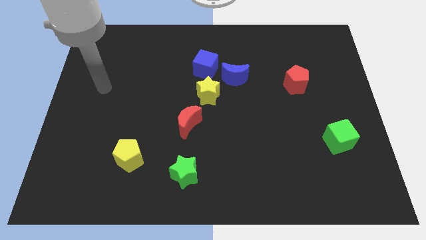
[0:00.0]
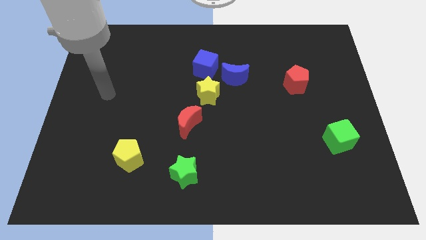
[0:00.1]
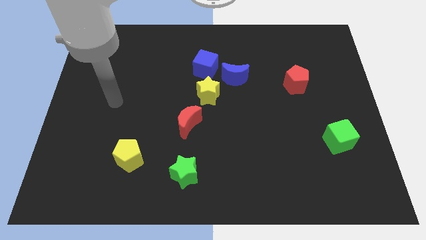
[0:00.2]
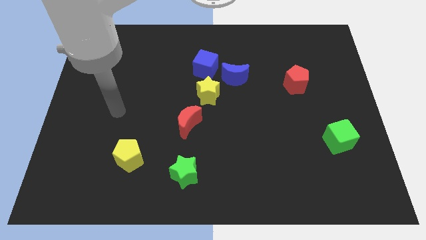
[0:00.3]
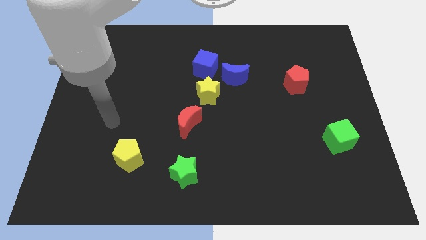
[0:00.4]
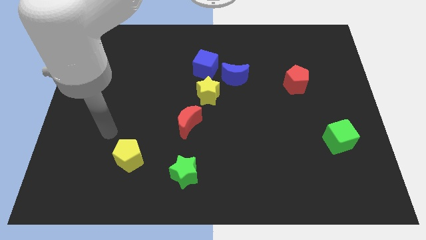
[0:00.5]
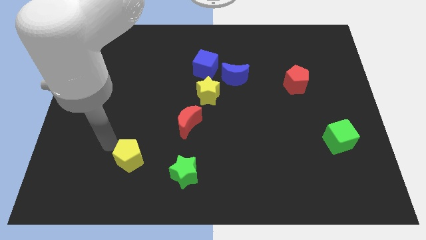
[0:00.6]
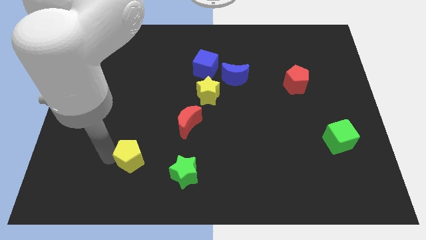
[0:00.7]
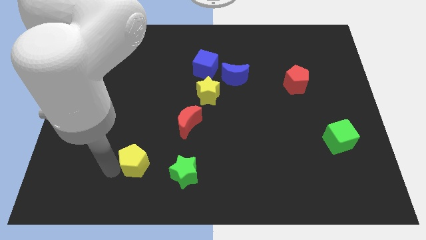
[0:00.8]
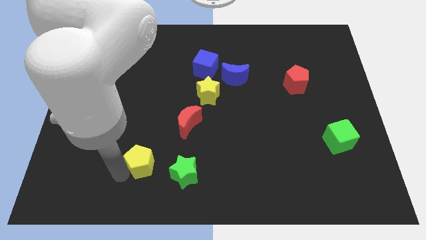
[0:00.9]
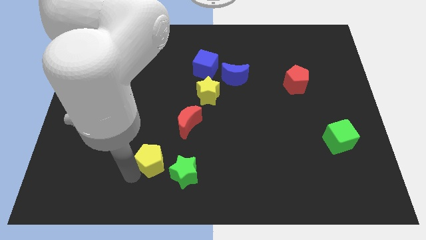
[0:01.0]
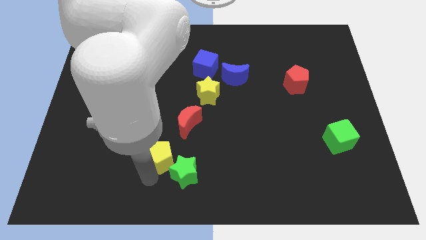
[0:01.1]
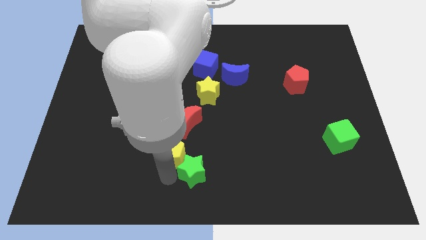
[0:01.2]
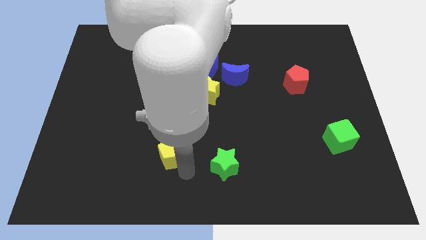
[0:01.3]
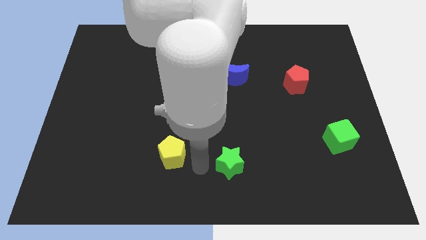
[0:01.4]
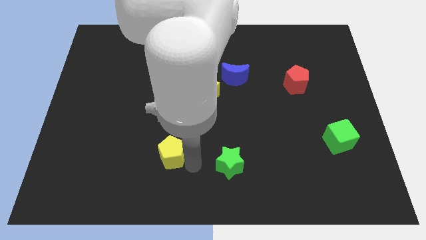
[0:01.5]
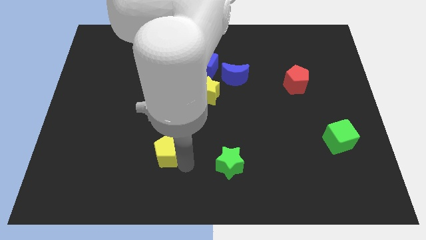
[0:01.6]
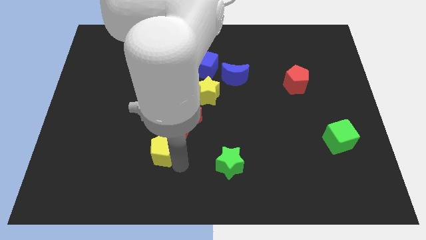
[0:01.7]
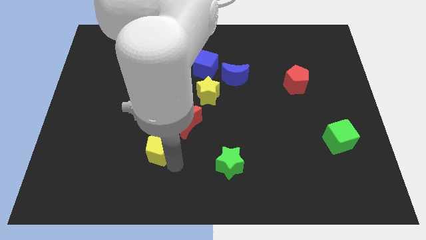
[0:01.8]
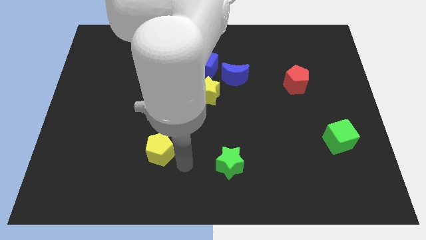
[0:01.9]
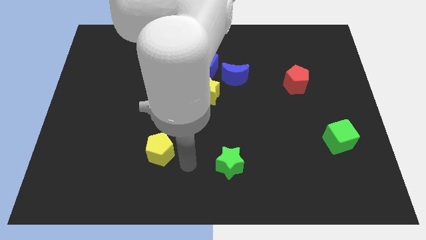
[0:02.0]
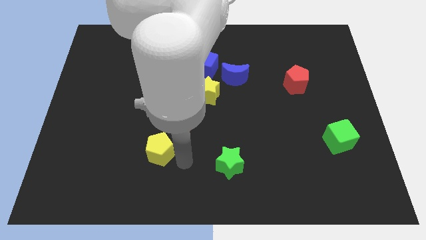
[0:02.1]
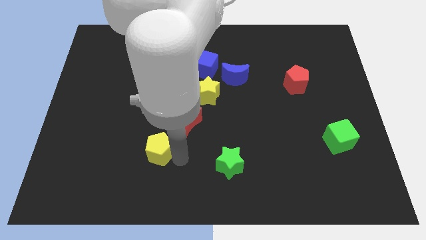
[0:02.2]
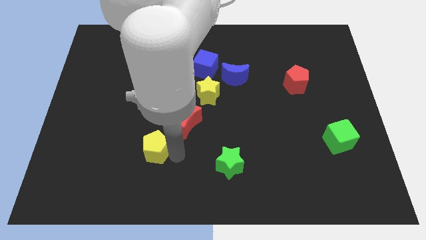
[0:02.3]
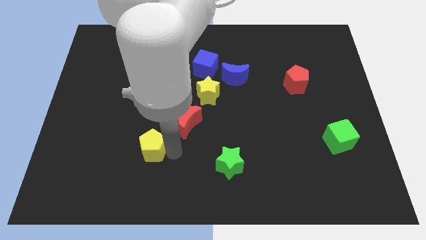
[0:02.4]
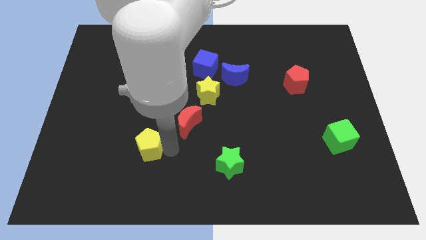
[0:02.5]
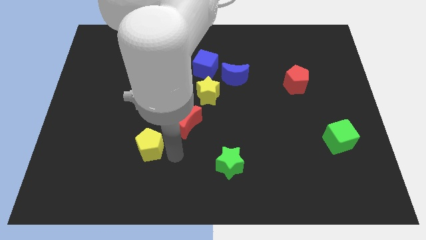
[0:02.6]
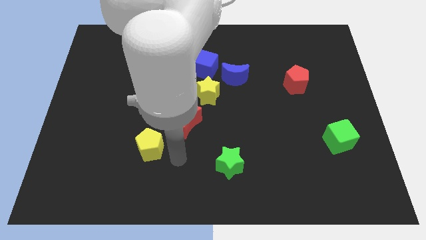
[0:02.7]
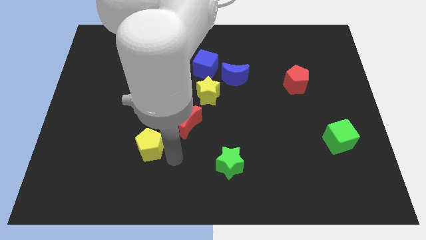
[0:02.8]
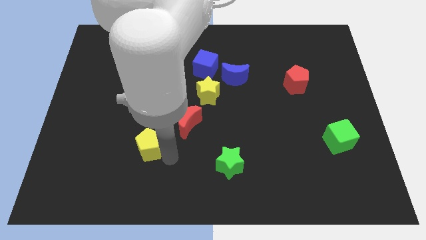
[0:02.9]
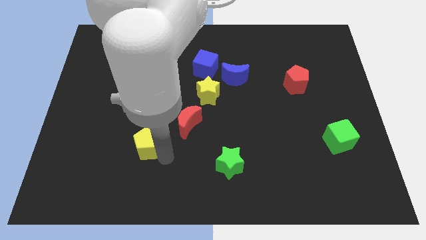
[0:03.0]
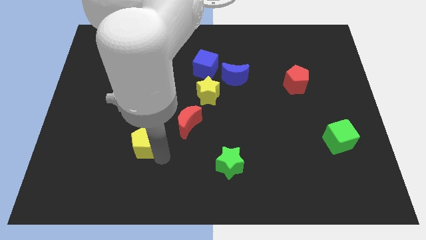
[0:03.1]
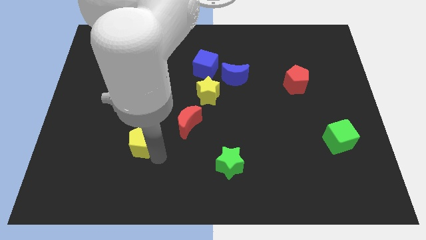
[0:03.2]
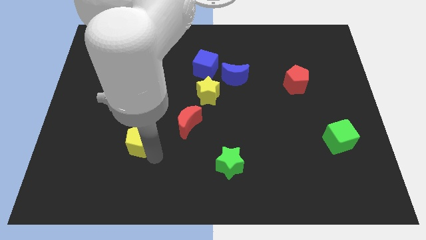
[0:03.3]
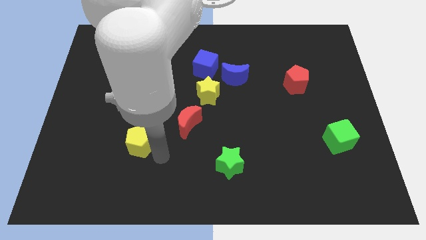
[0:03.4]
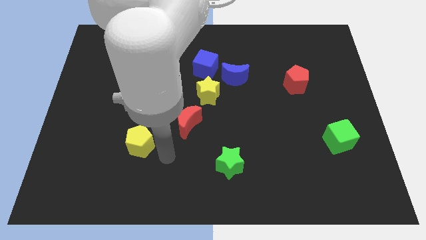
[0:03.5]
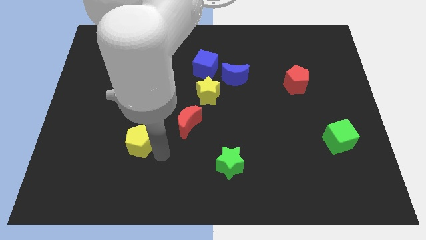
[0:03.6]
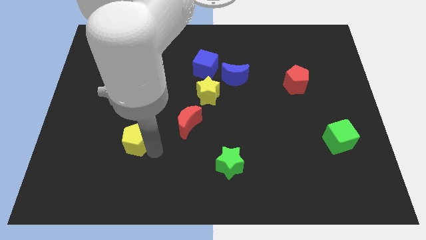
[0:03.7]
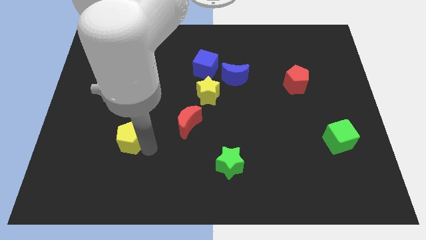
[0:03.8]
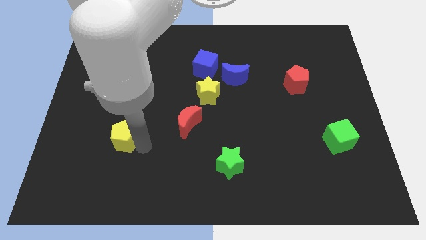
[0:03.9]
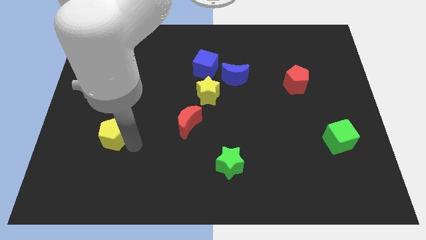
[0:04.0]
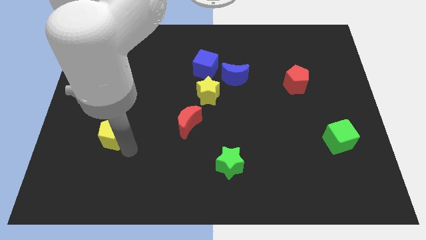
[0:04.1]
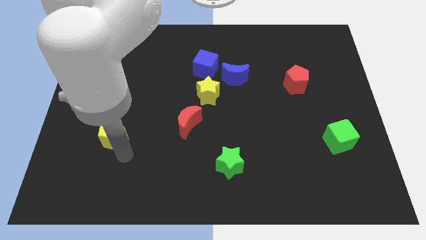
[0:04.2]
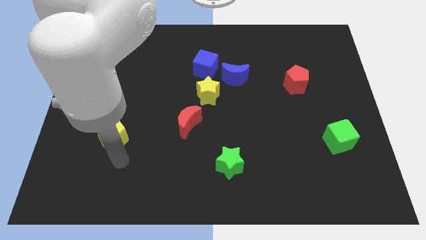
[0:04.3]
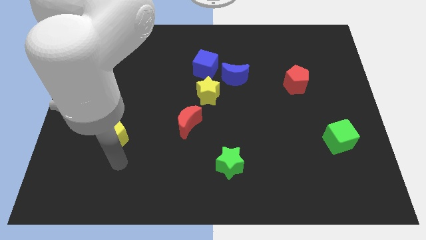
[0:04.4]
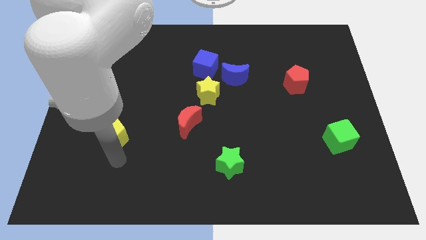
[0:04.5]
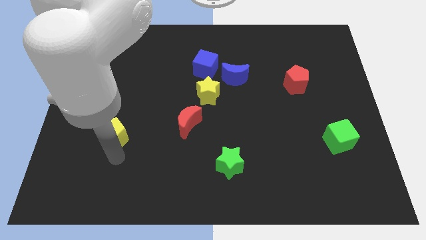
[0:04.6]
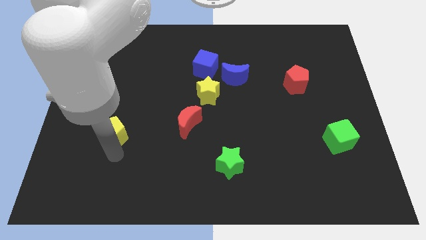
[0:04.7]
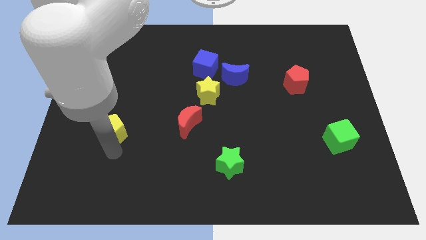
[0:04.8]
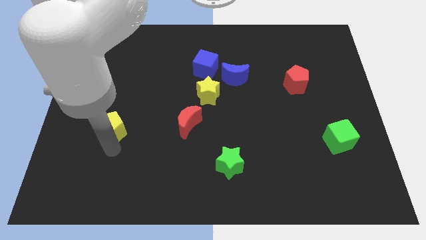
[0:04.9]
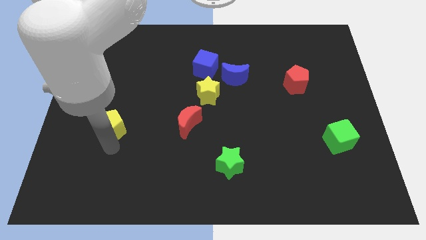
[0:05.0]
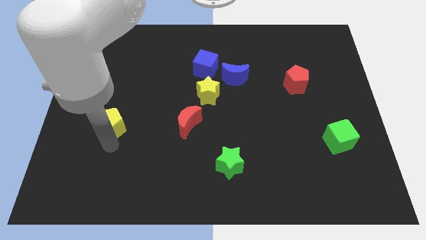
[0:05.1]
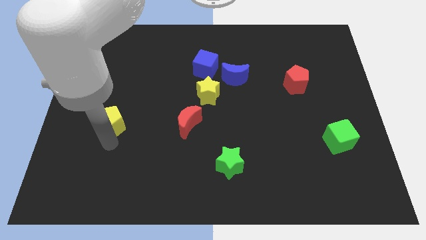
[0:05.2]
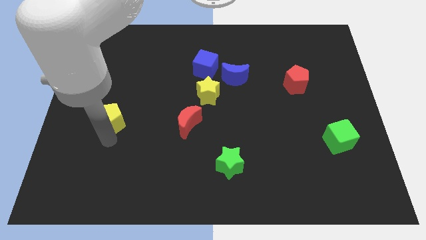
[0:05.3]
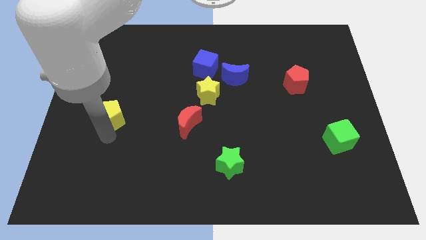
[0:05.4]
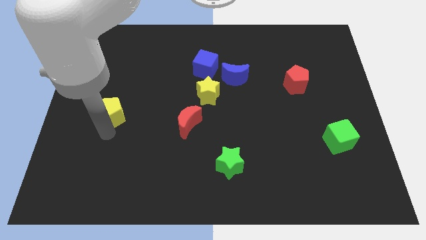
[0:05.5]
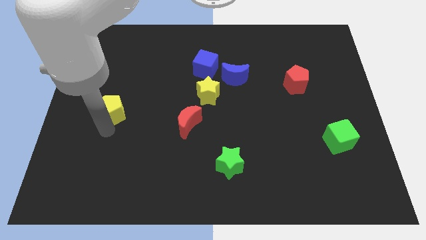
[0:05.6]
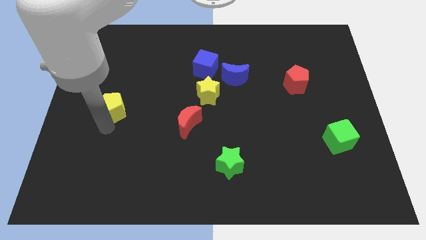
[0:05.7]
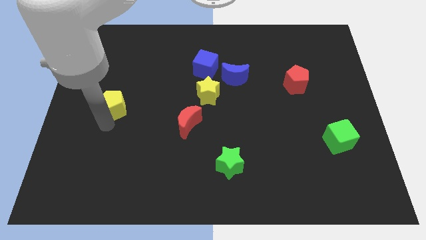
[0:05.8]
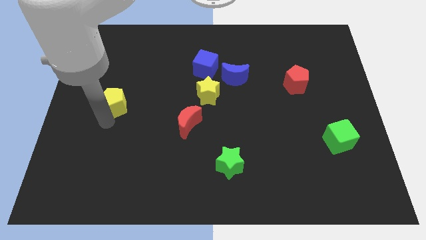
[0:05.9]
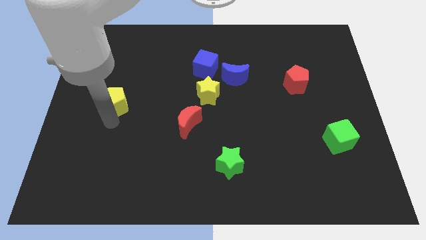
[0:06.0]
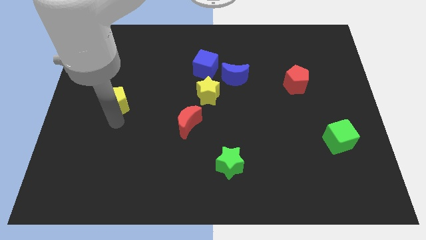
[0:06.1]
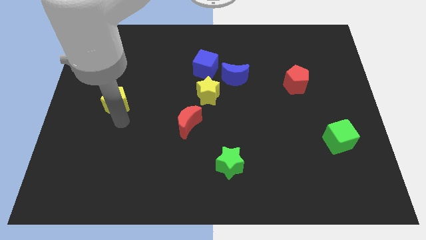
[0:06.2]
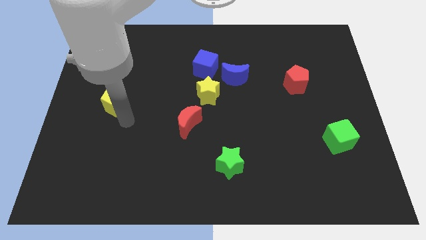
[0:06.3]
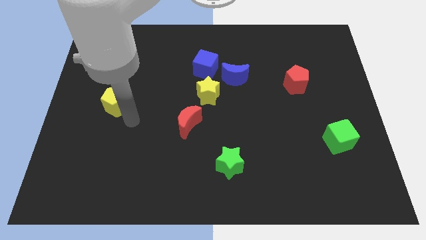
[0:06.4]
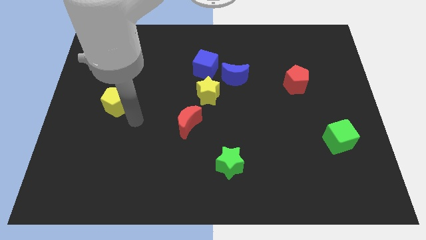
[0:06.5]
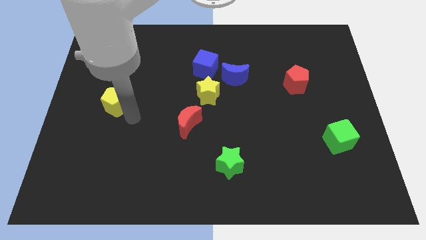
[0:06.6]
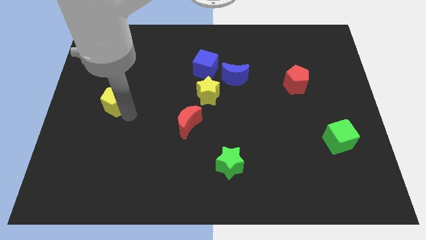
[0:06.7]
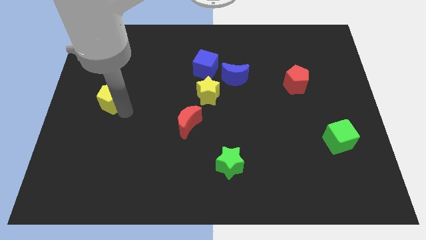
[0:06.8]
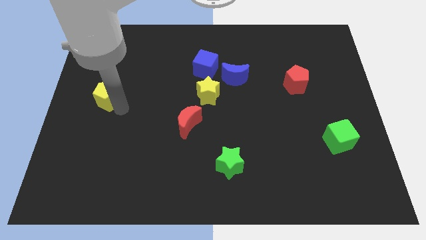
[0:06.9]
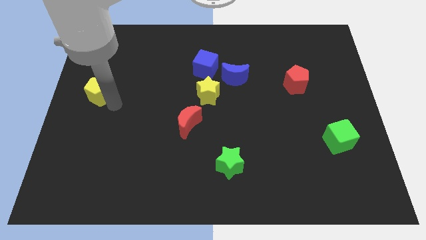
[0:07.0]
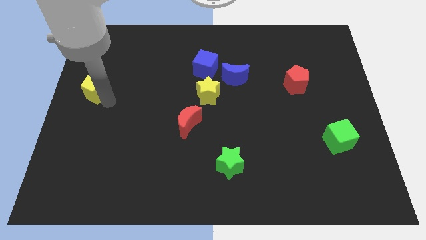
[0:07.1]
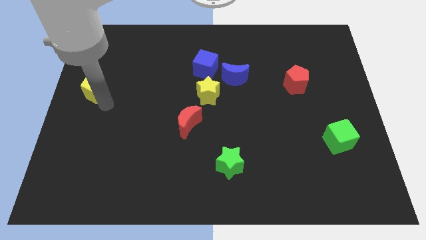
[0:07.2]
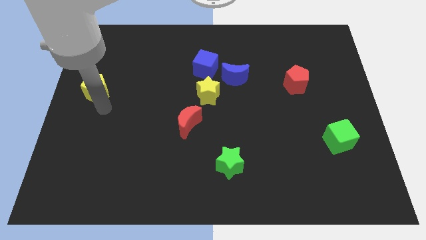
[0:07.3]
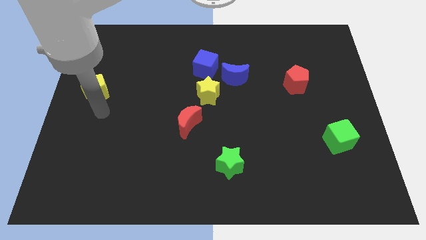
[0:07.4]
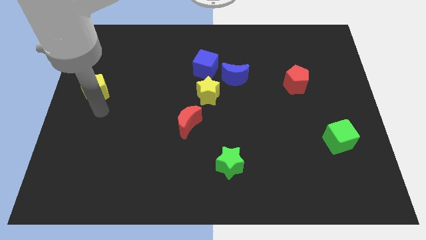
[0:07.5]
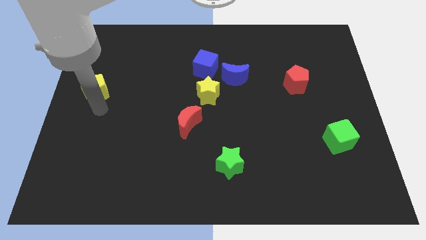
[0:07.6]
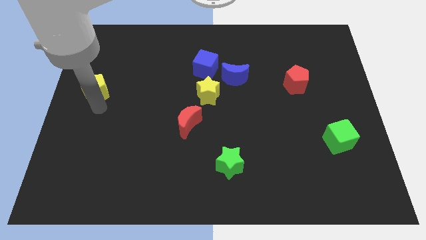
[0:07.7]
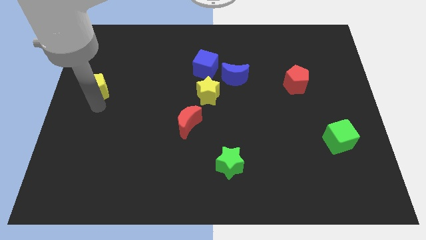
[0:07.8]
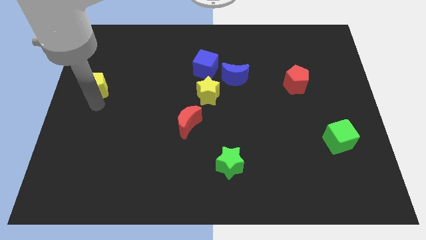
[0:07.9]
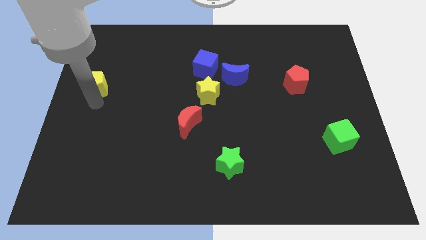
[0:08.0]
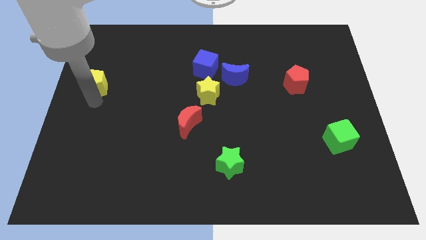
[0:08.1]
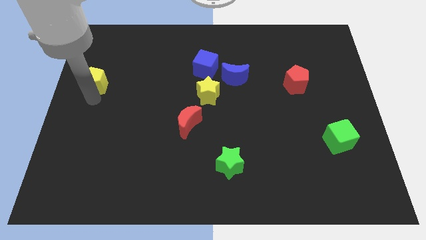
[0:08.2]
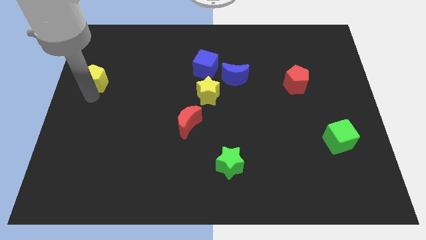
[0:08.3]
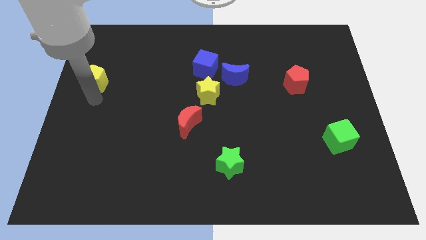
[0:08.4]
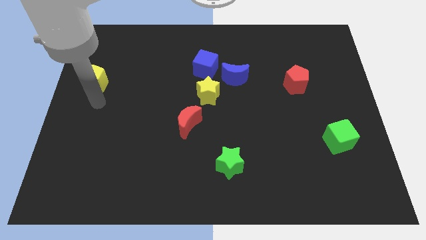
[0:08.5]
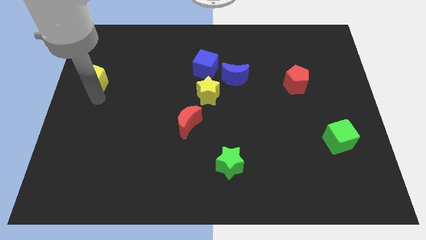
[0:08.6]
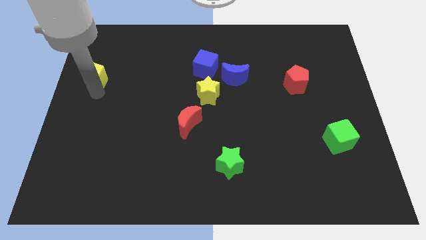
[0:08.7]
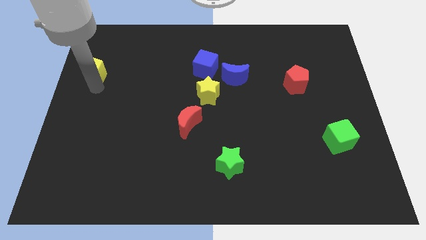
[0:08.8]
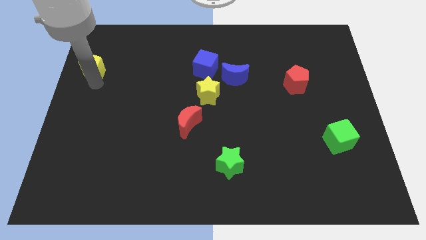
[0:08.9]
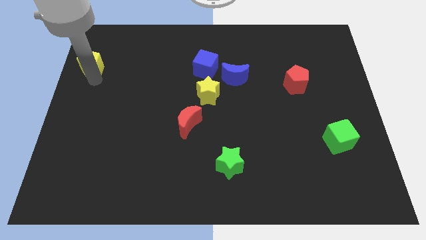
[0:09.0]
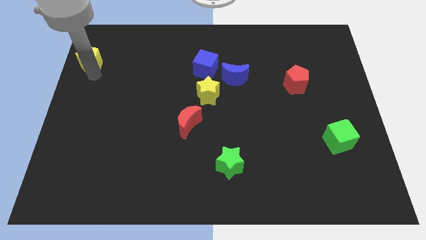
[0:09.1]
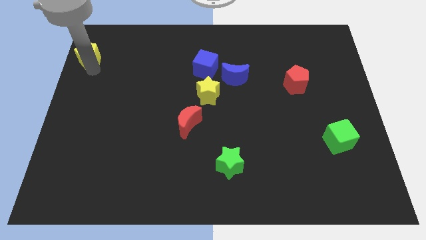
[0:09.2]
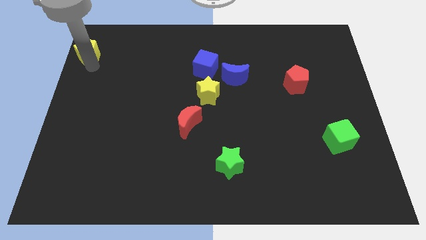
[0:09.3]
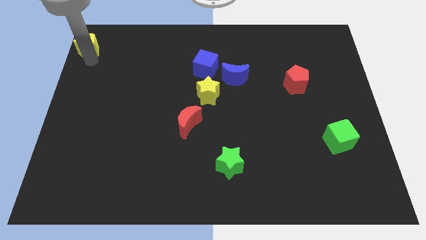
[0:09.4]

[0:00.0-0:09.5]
push the yellow pentagon to the top left corner
